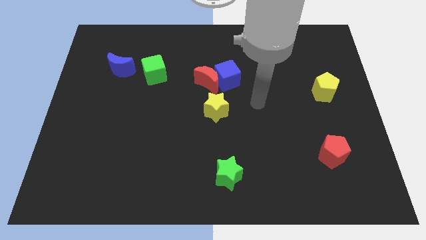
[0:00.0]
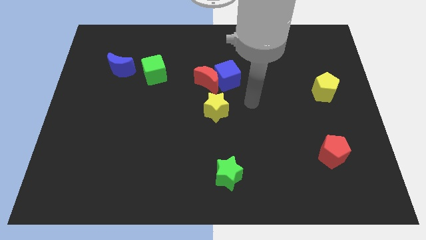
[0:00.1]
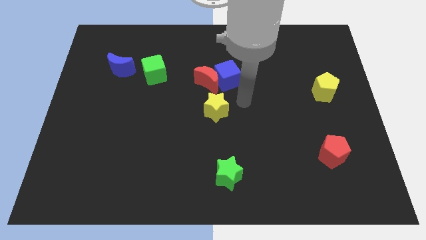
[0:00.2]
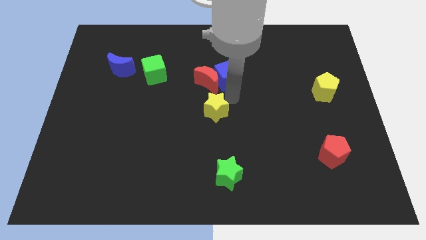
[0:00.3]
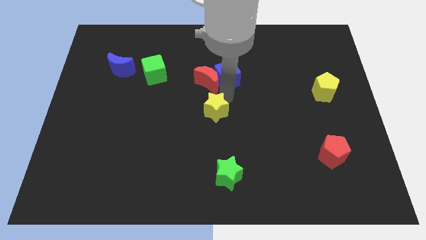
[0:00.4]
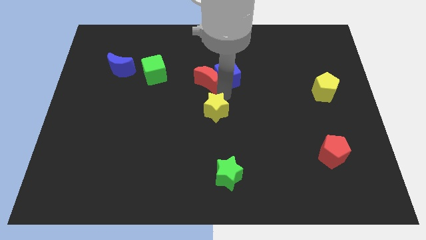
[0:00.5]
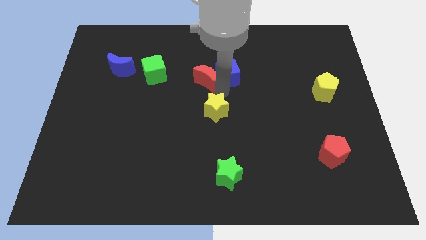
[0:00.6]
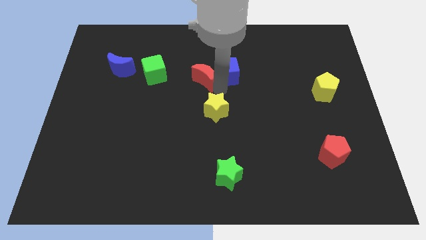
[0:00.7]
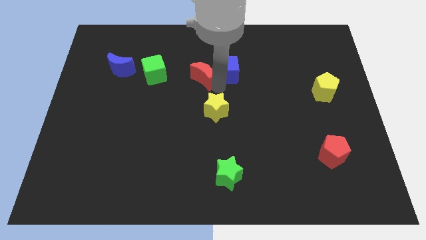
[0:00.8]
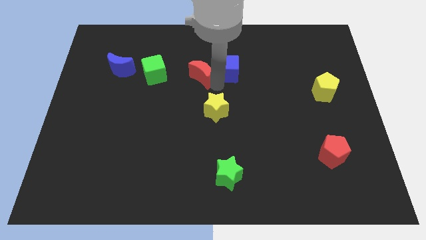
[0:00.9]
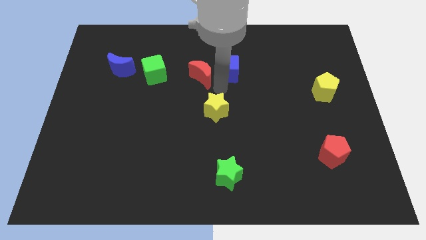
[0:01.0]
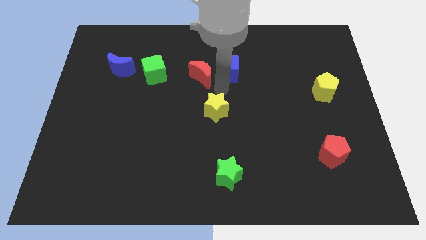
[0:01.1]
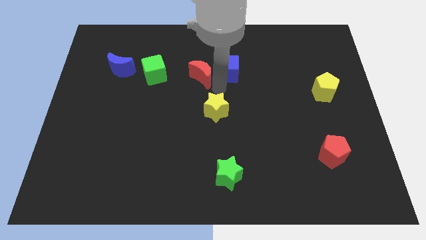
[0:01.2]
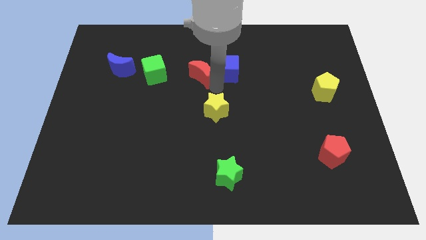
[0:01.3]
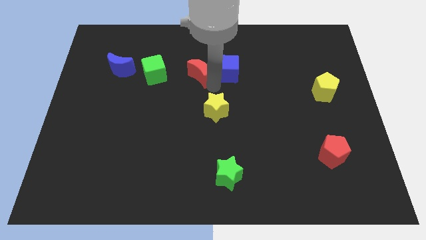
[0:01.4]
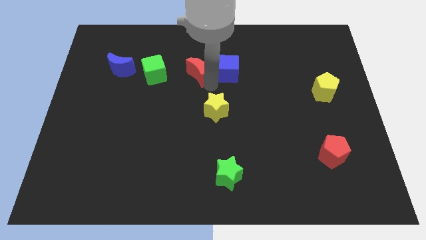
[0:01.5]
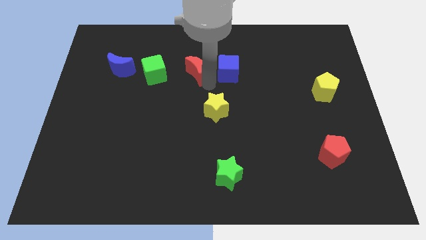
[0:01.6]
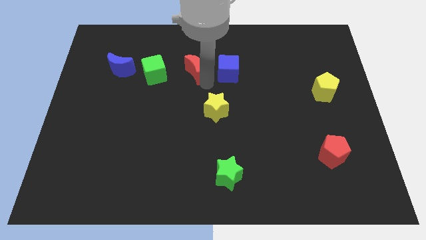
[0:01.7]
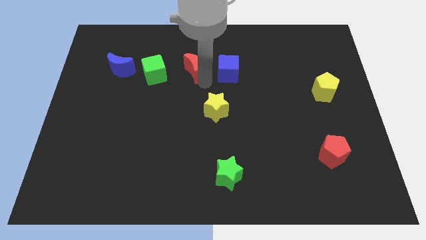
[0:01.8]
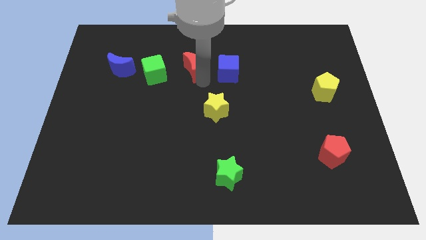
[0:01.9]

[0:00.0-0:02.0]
pull the red moon apart from the blue cube and yellow star

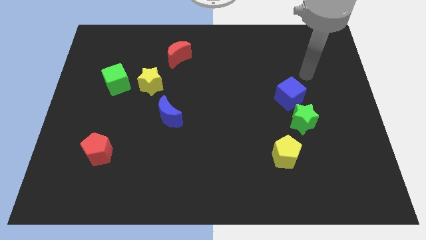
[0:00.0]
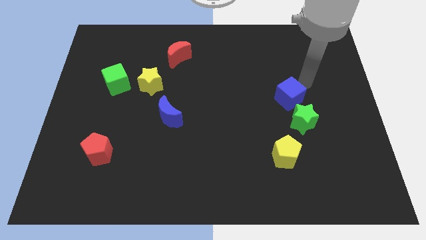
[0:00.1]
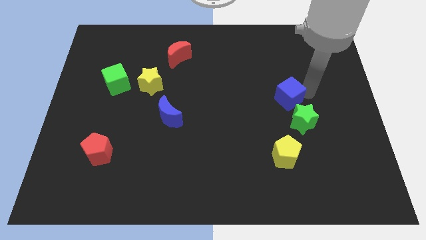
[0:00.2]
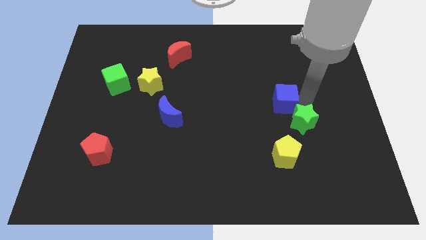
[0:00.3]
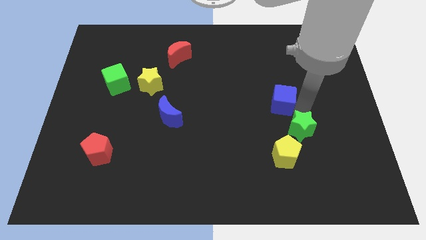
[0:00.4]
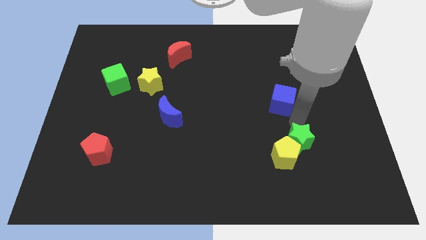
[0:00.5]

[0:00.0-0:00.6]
separate the blue cube from the green star

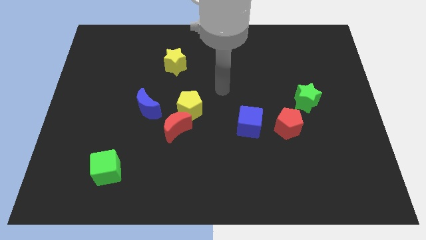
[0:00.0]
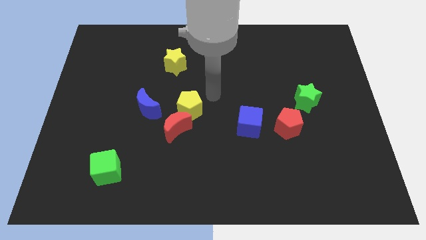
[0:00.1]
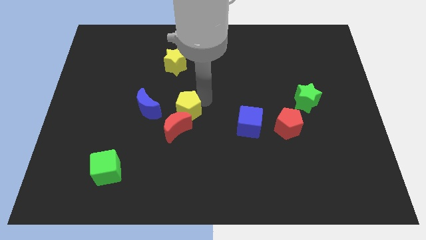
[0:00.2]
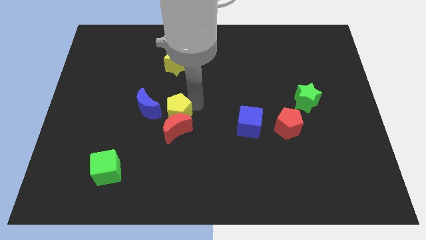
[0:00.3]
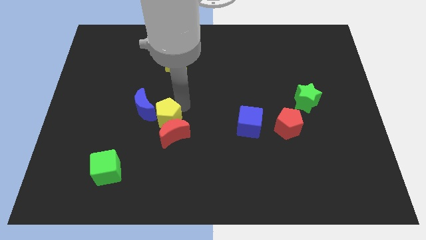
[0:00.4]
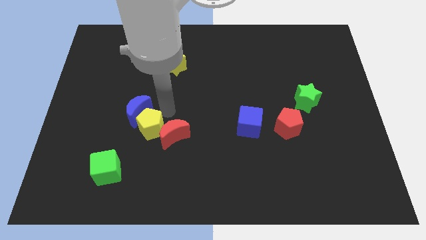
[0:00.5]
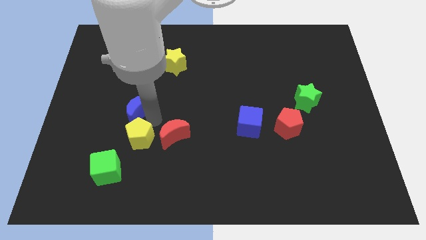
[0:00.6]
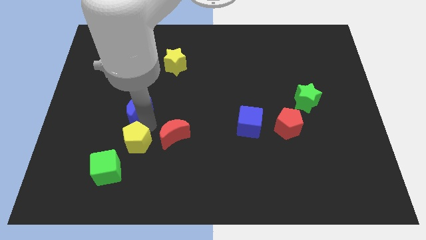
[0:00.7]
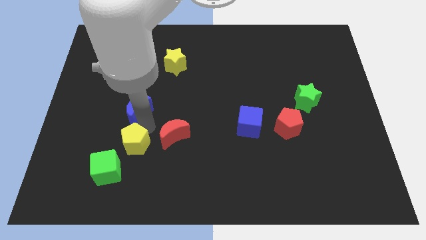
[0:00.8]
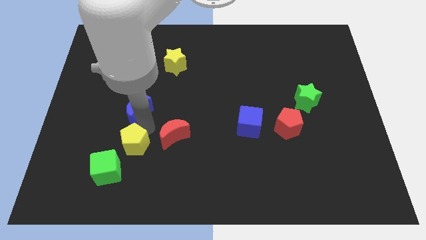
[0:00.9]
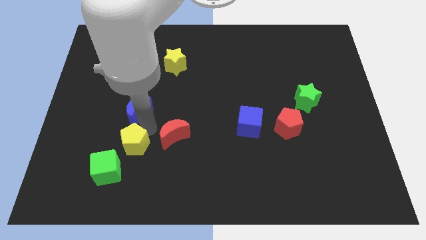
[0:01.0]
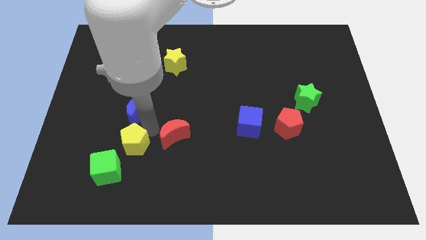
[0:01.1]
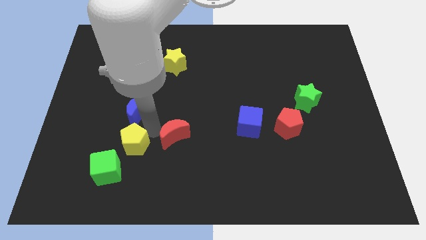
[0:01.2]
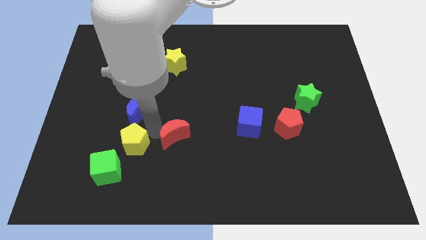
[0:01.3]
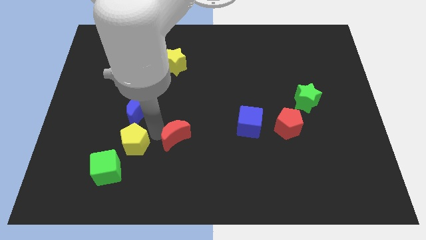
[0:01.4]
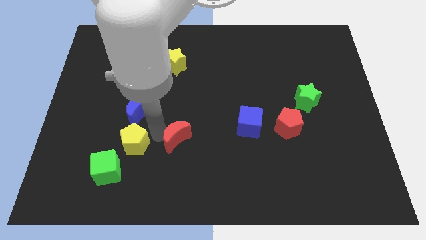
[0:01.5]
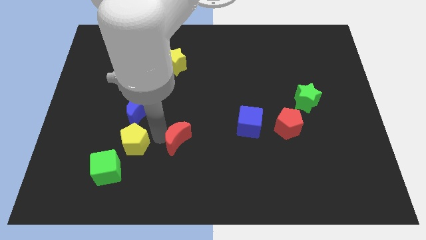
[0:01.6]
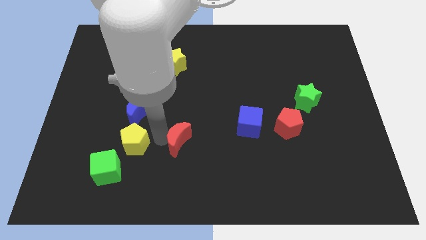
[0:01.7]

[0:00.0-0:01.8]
separate the red moon from the yellow pentagon and blue moon

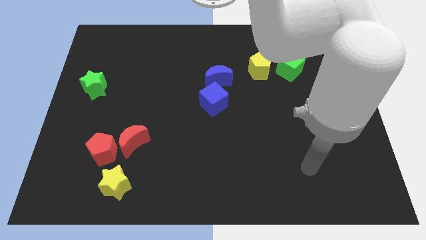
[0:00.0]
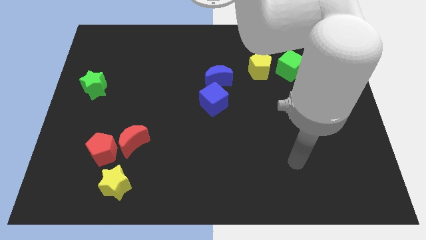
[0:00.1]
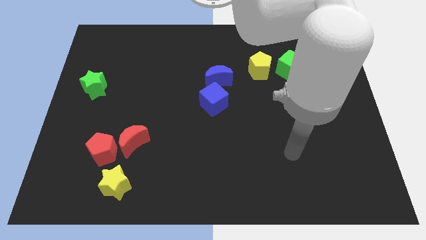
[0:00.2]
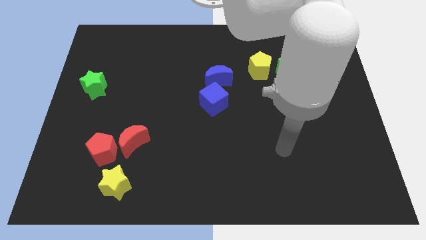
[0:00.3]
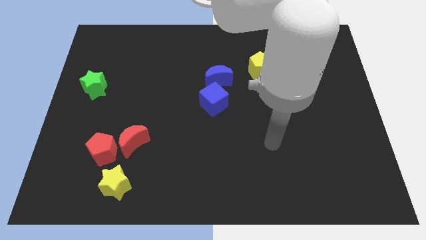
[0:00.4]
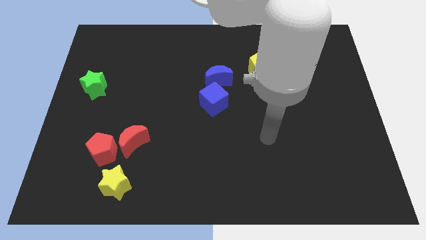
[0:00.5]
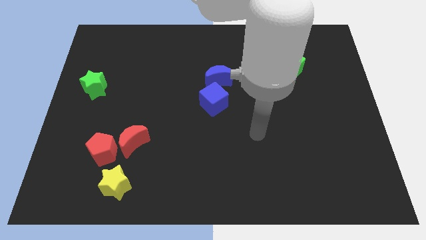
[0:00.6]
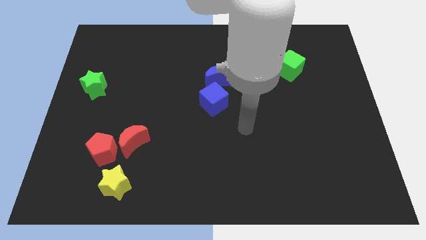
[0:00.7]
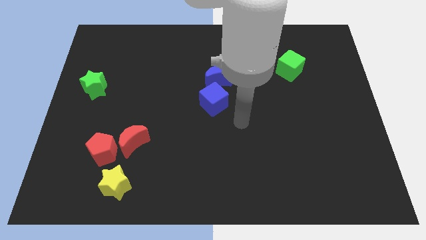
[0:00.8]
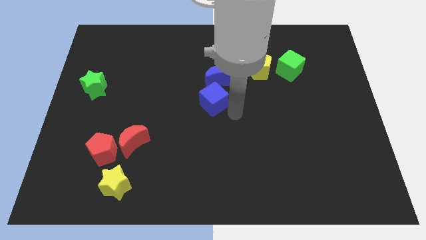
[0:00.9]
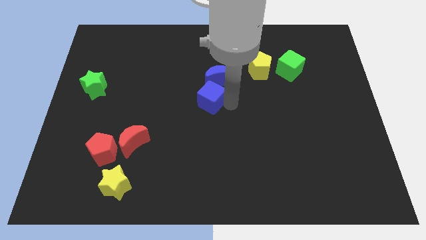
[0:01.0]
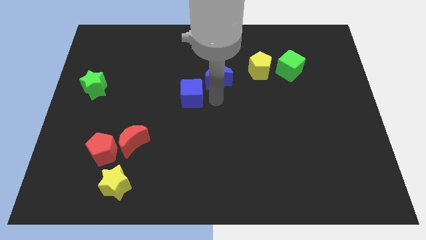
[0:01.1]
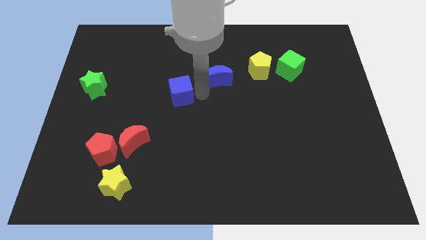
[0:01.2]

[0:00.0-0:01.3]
move the blue moon away from the blue cube

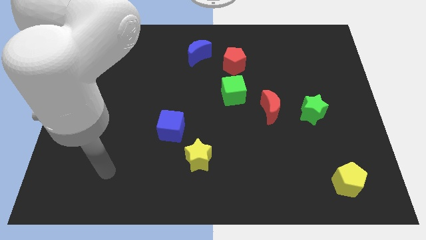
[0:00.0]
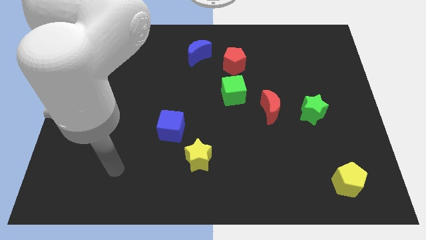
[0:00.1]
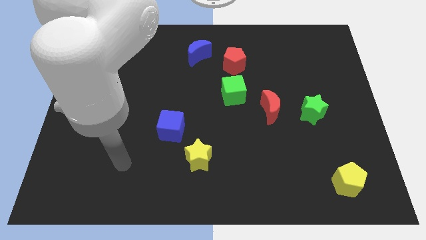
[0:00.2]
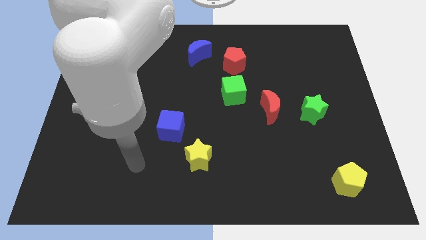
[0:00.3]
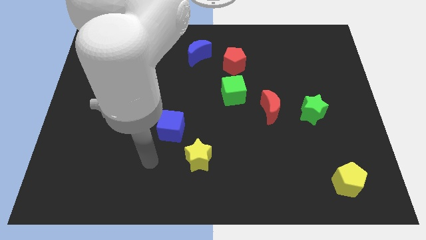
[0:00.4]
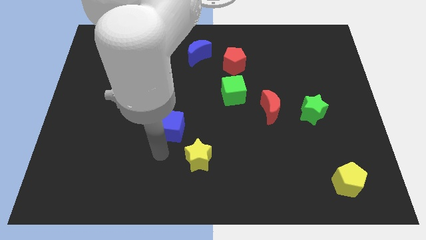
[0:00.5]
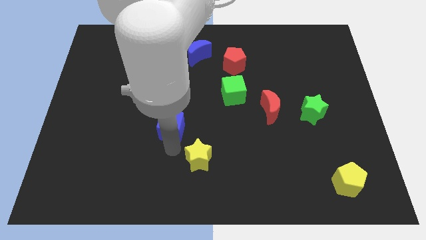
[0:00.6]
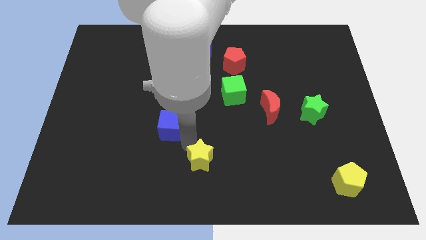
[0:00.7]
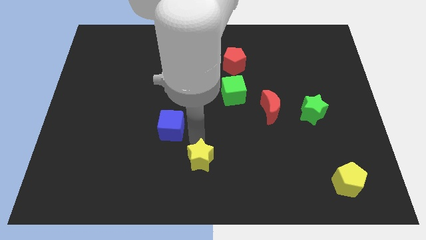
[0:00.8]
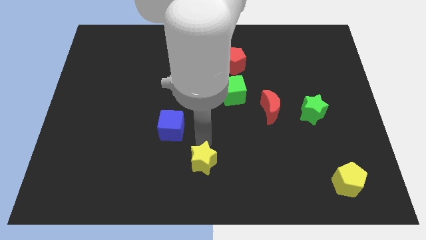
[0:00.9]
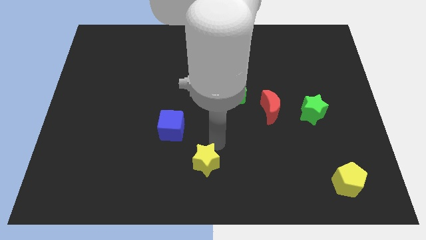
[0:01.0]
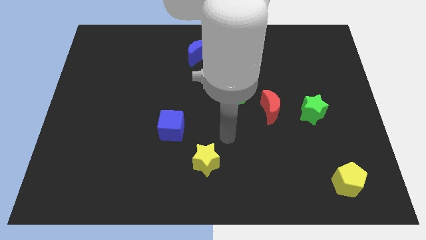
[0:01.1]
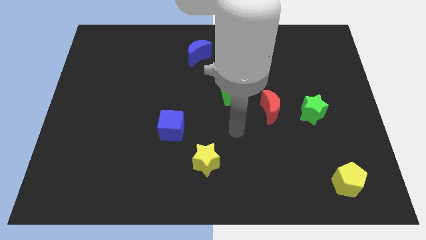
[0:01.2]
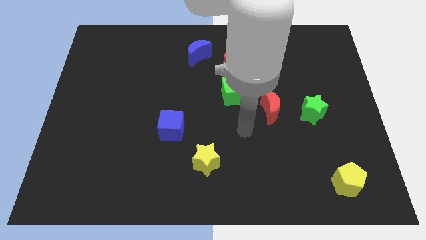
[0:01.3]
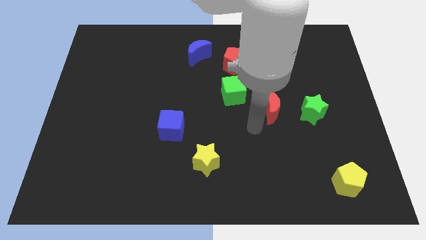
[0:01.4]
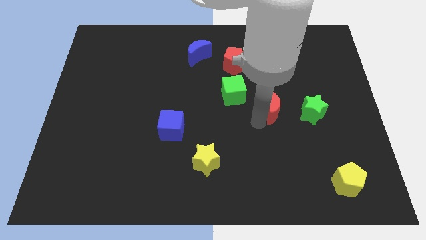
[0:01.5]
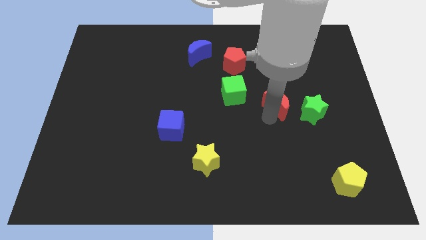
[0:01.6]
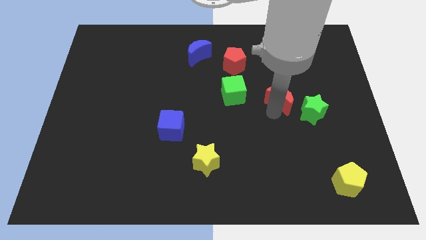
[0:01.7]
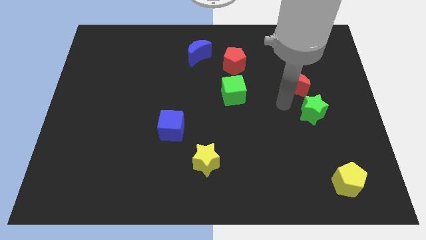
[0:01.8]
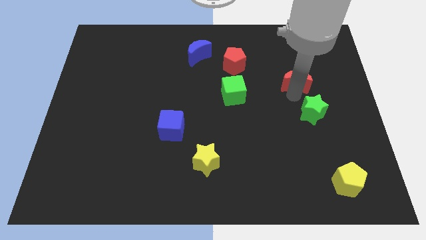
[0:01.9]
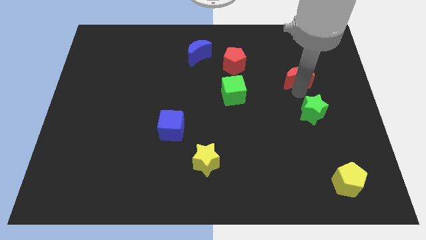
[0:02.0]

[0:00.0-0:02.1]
pull the green star apart from the red moon

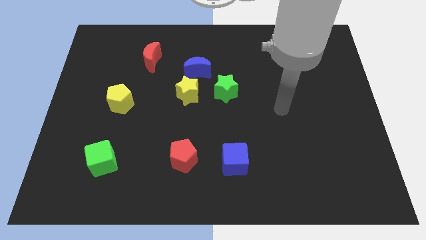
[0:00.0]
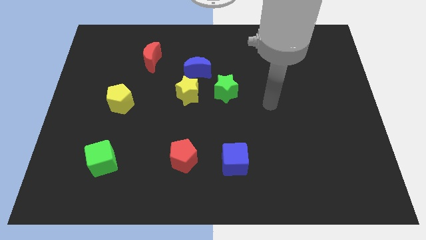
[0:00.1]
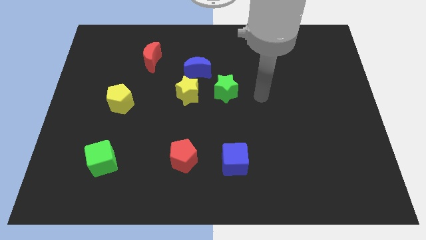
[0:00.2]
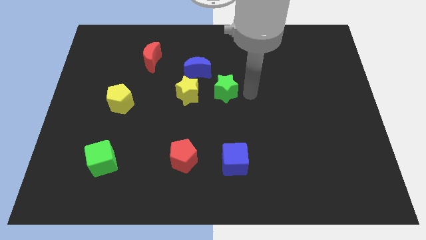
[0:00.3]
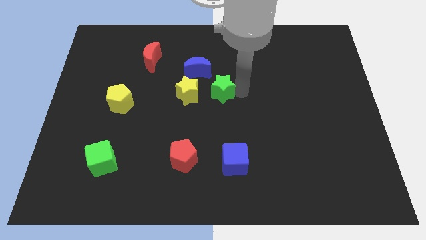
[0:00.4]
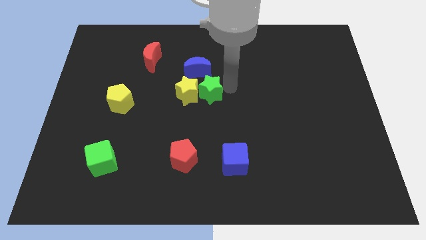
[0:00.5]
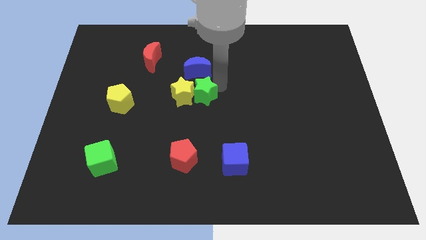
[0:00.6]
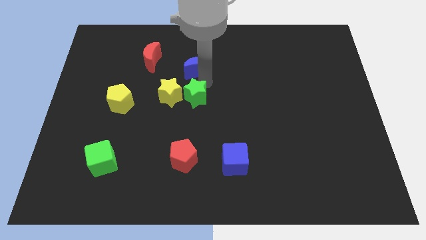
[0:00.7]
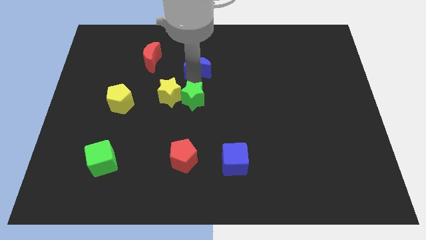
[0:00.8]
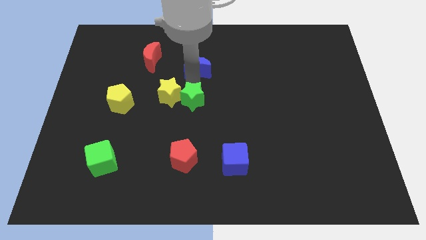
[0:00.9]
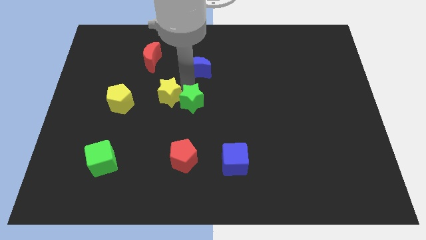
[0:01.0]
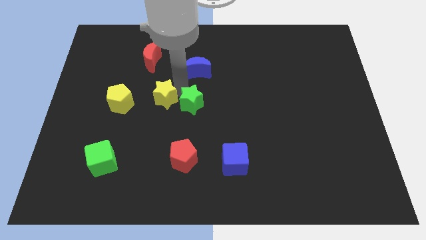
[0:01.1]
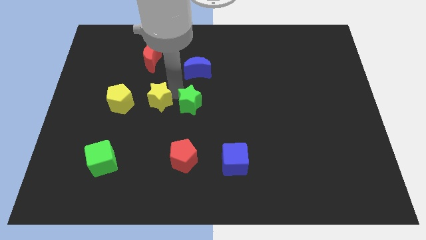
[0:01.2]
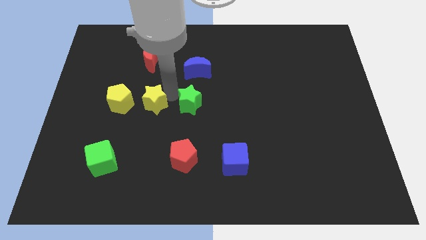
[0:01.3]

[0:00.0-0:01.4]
pull the yellow star apart from the blue moon and green star
